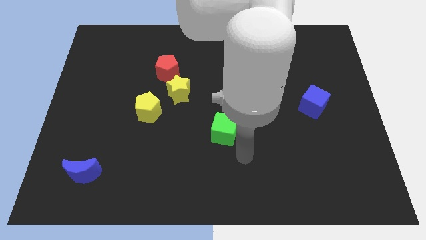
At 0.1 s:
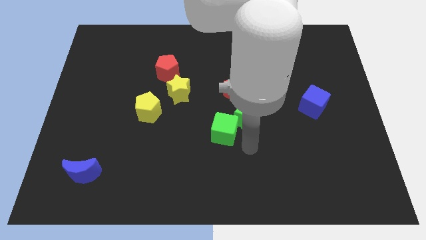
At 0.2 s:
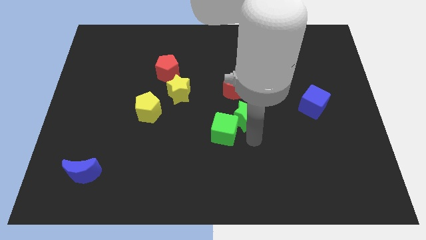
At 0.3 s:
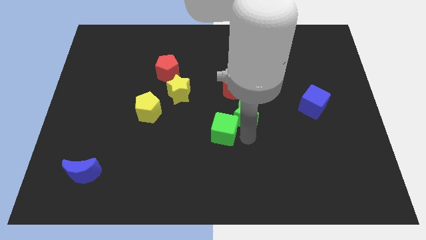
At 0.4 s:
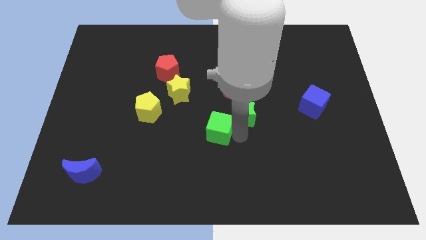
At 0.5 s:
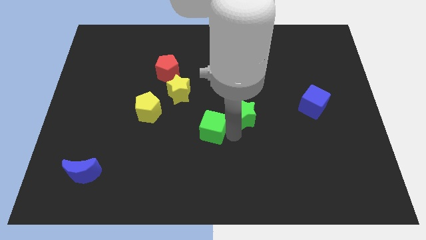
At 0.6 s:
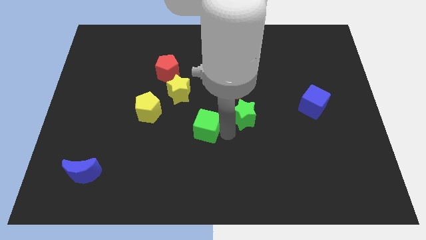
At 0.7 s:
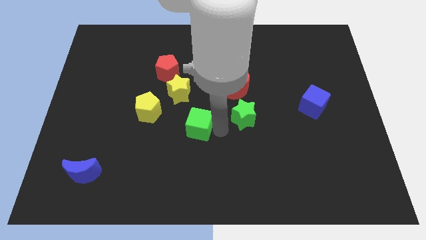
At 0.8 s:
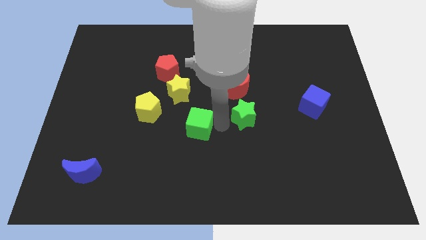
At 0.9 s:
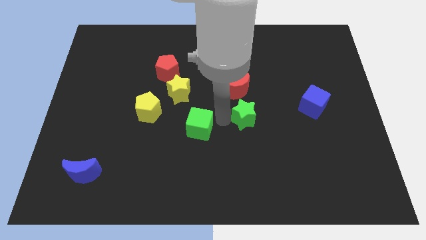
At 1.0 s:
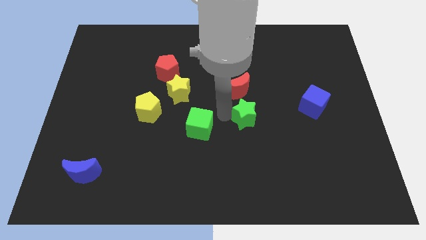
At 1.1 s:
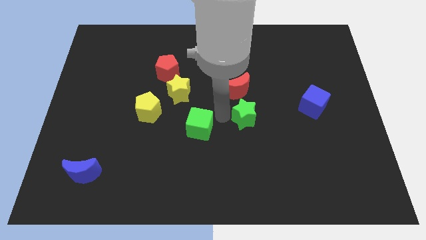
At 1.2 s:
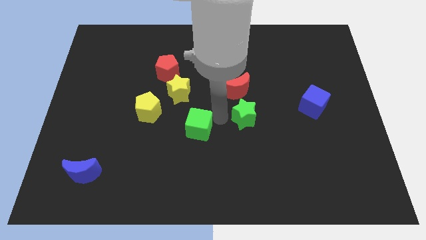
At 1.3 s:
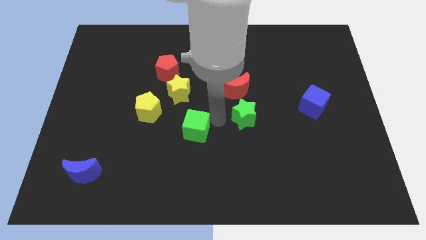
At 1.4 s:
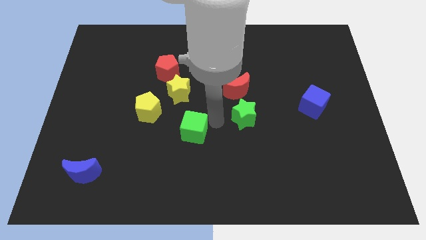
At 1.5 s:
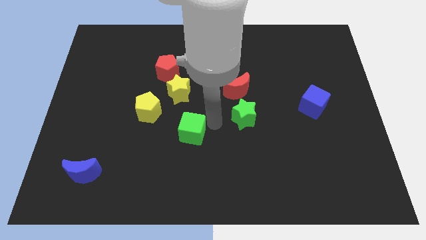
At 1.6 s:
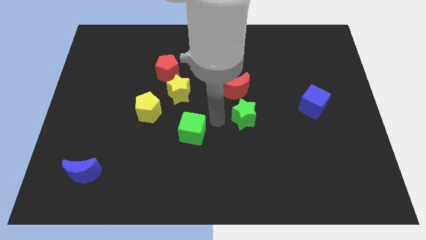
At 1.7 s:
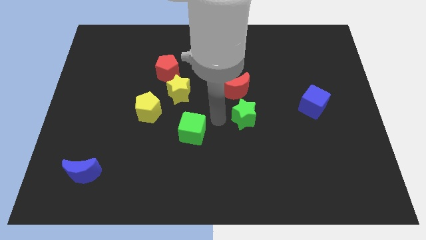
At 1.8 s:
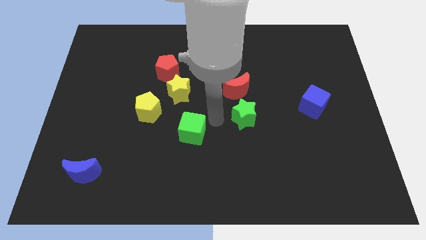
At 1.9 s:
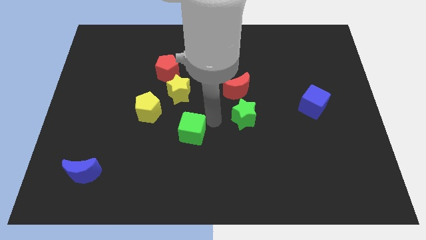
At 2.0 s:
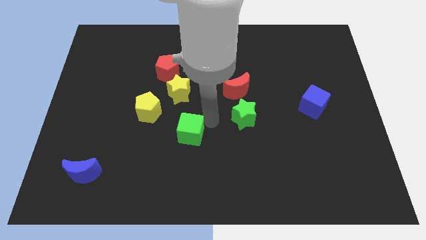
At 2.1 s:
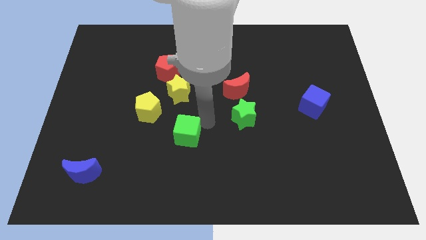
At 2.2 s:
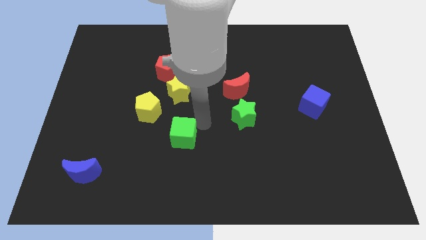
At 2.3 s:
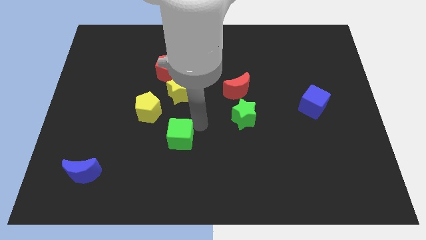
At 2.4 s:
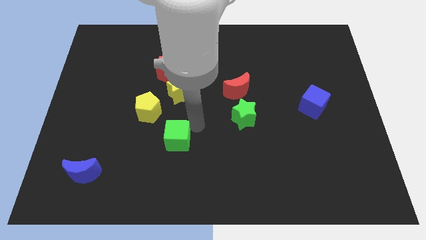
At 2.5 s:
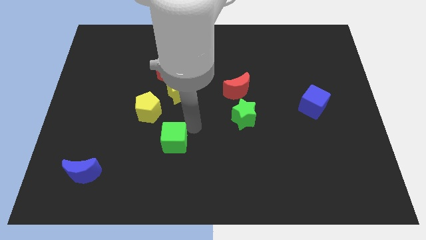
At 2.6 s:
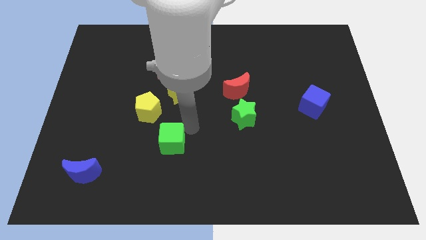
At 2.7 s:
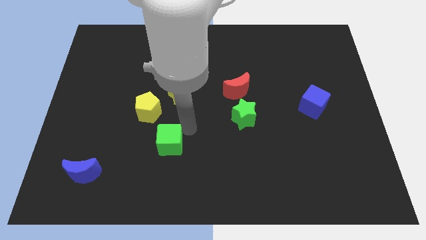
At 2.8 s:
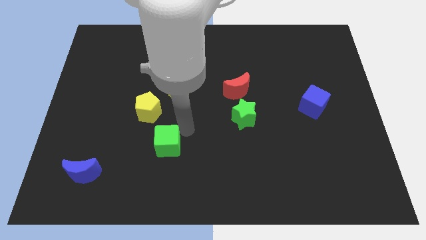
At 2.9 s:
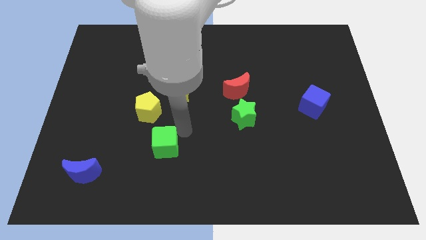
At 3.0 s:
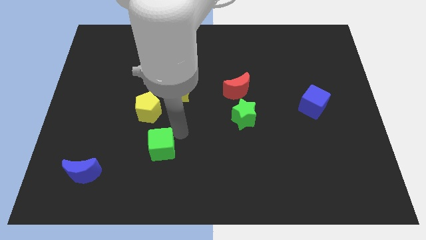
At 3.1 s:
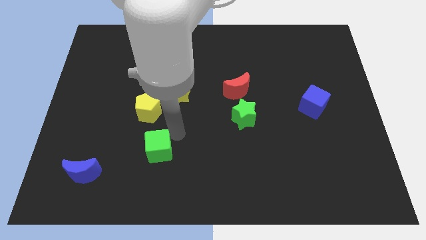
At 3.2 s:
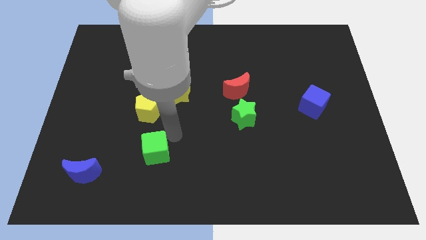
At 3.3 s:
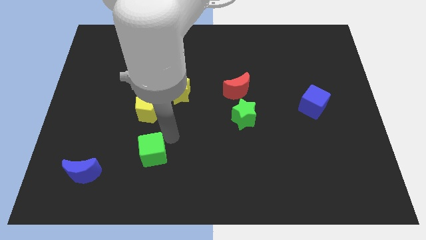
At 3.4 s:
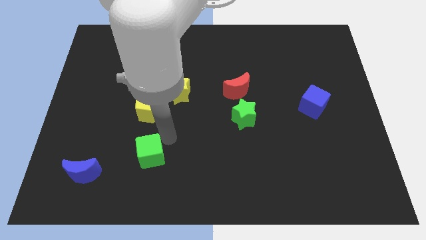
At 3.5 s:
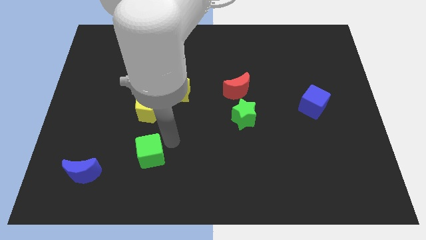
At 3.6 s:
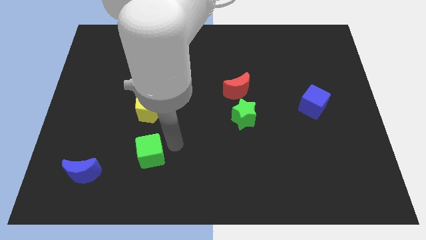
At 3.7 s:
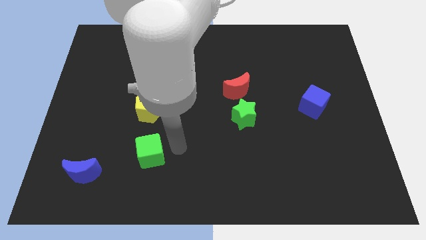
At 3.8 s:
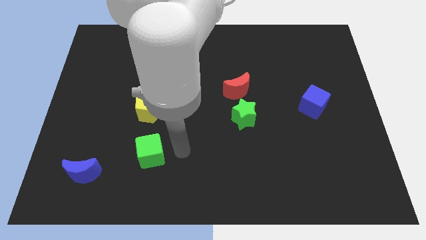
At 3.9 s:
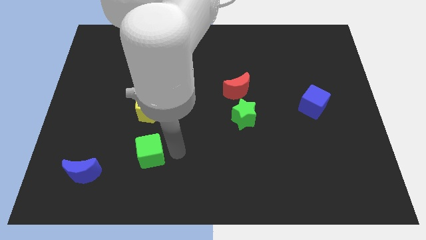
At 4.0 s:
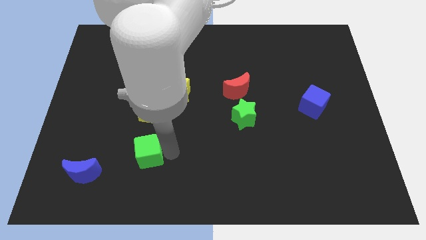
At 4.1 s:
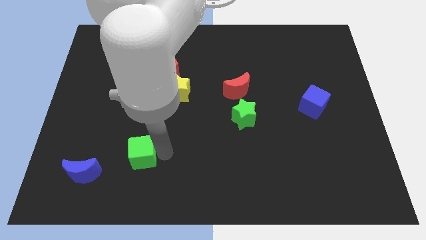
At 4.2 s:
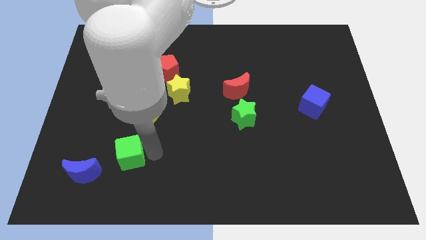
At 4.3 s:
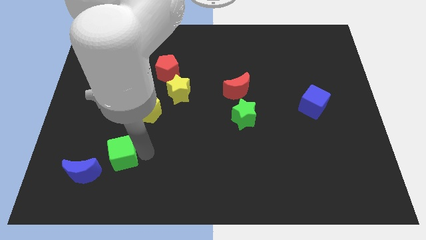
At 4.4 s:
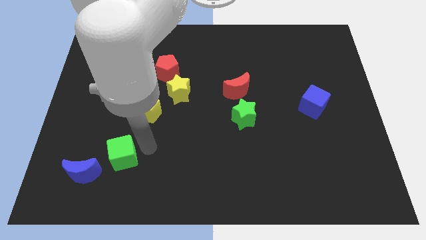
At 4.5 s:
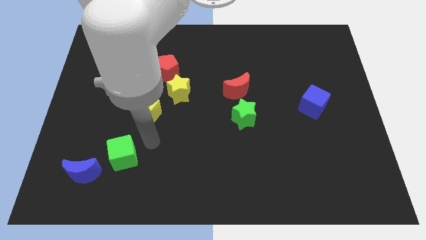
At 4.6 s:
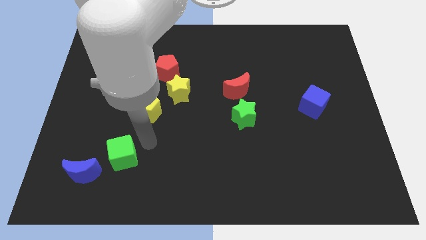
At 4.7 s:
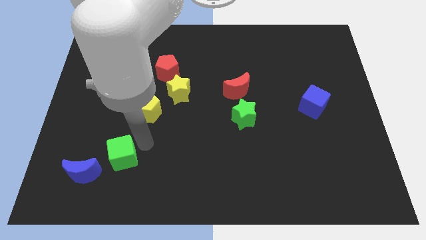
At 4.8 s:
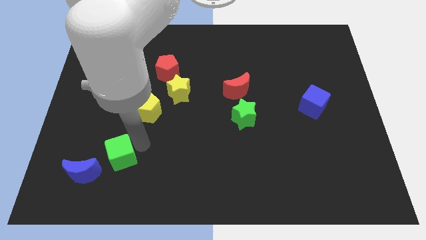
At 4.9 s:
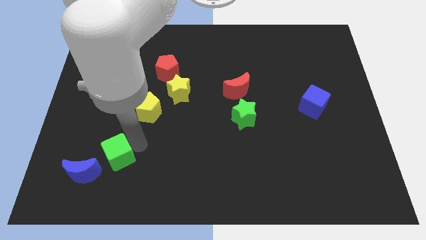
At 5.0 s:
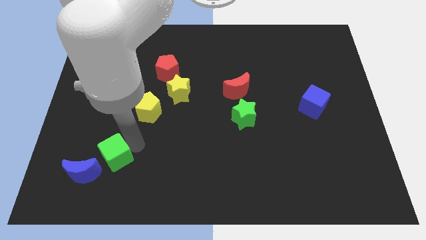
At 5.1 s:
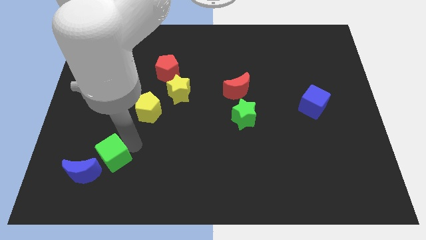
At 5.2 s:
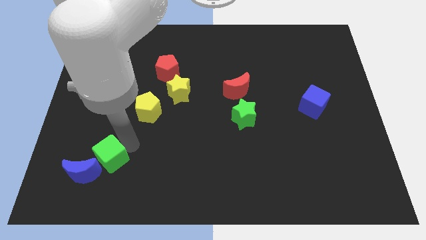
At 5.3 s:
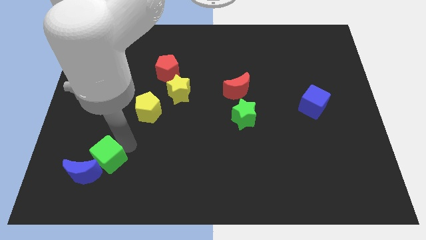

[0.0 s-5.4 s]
put the green cube next to the blue moon

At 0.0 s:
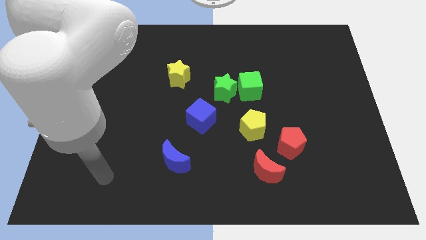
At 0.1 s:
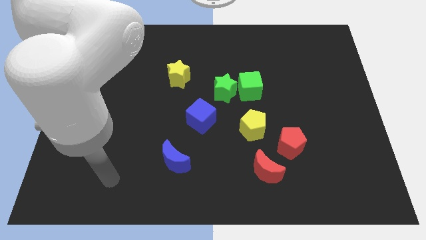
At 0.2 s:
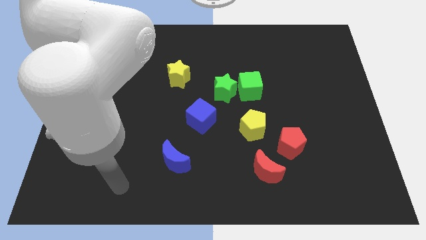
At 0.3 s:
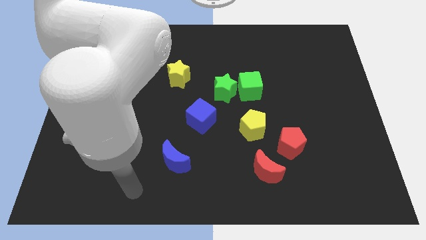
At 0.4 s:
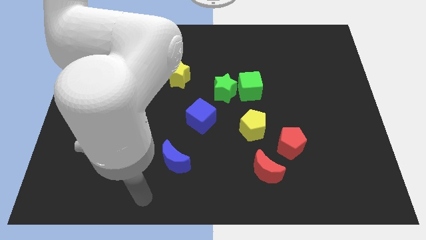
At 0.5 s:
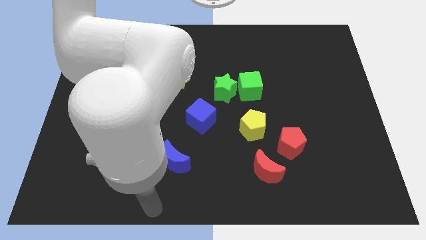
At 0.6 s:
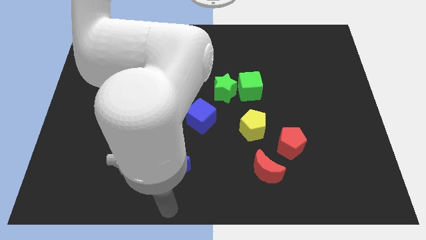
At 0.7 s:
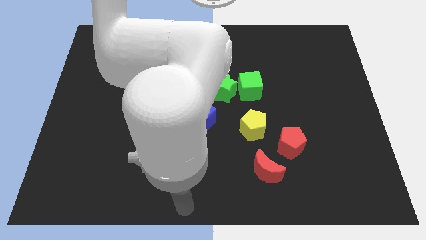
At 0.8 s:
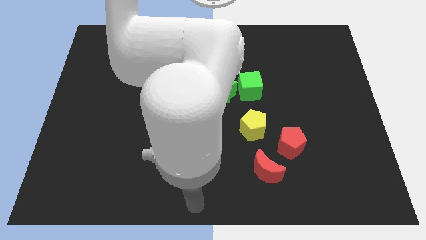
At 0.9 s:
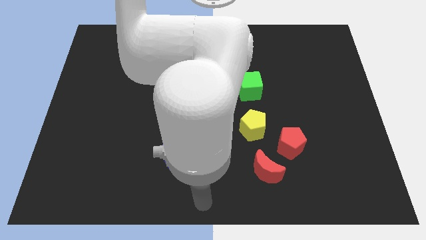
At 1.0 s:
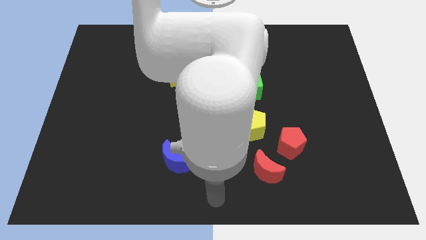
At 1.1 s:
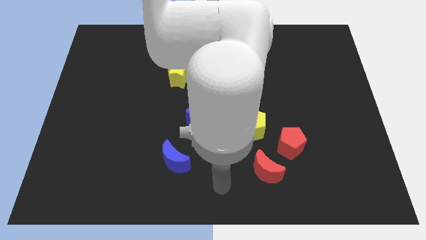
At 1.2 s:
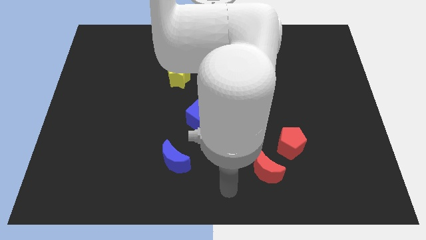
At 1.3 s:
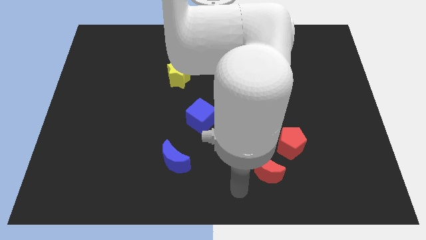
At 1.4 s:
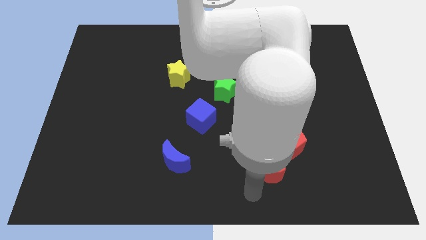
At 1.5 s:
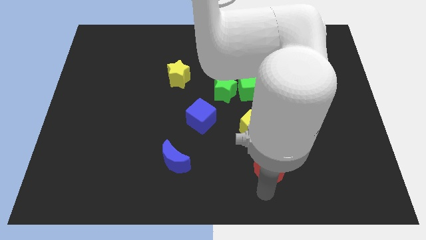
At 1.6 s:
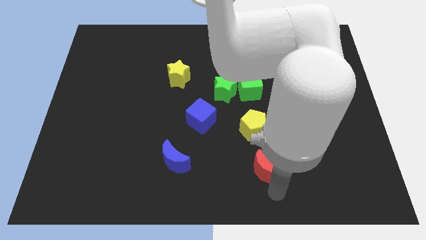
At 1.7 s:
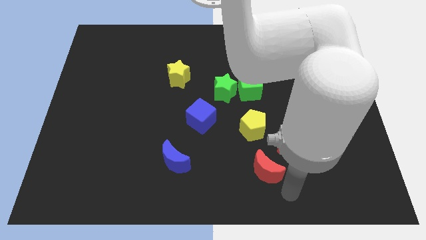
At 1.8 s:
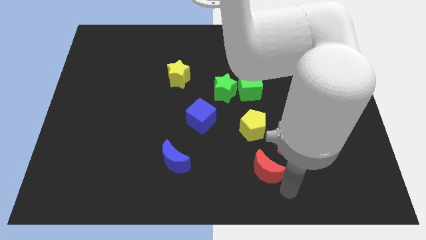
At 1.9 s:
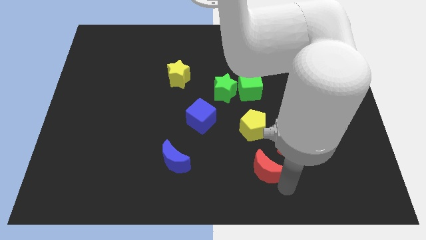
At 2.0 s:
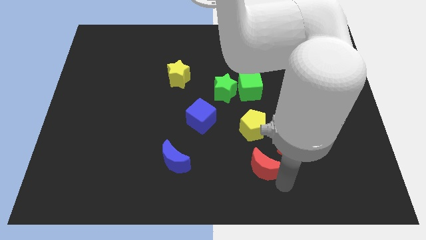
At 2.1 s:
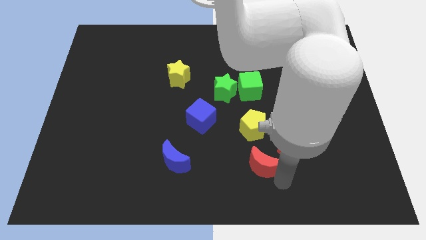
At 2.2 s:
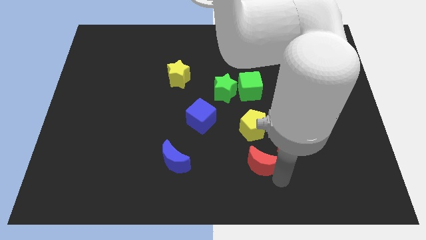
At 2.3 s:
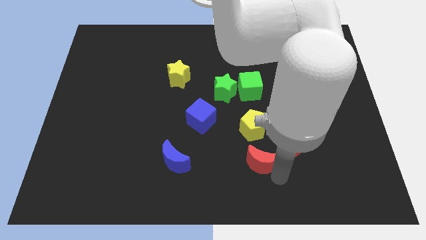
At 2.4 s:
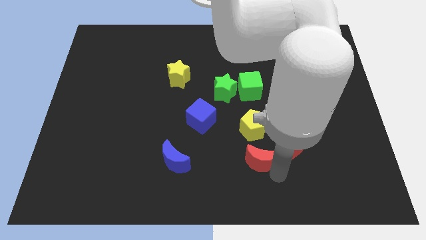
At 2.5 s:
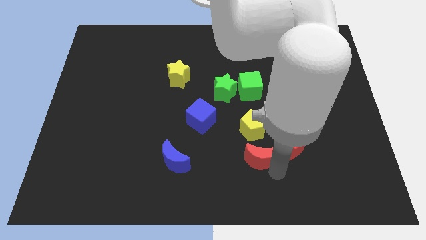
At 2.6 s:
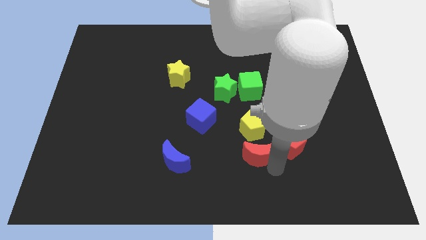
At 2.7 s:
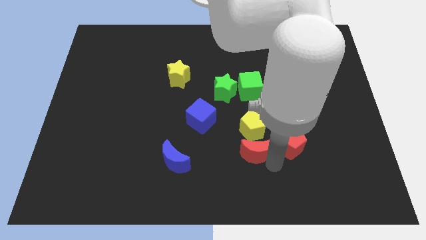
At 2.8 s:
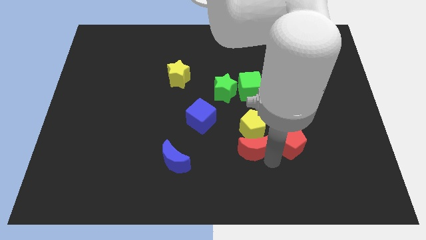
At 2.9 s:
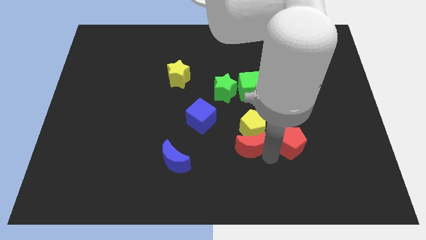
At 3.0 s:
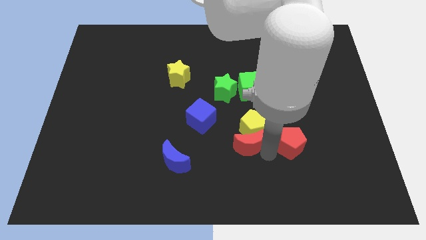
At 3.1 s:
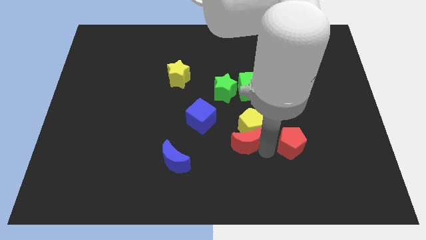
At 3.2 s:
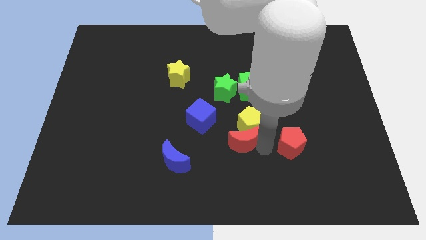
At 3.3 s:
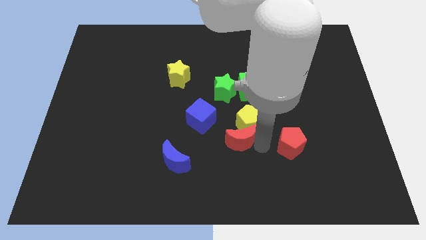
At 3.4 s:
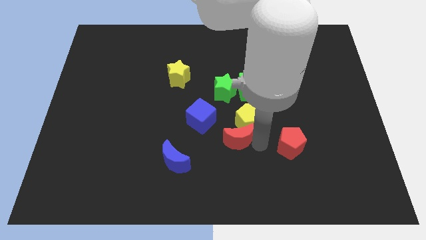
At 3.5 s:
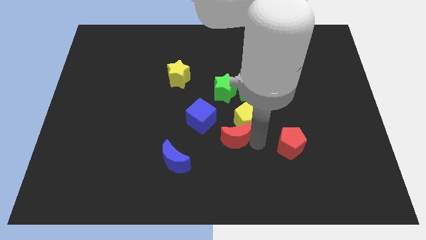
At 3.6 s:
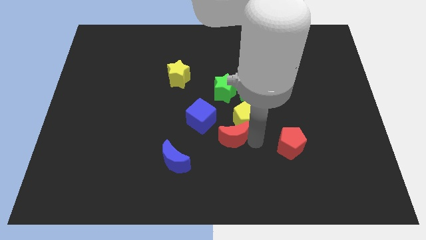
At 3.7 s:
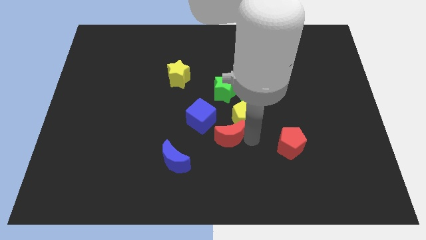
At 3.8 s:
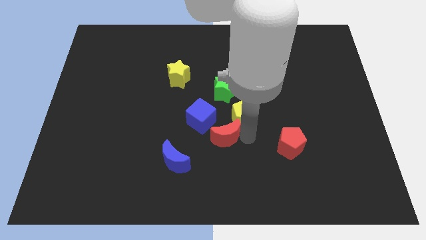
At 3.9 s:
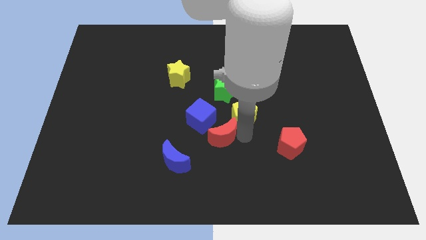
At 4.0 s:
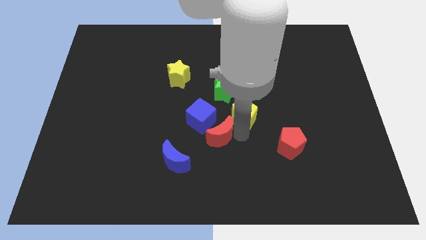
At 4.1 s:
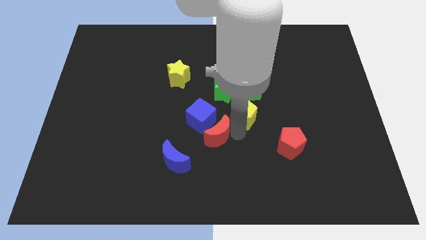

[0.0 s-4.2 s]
push the red moon next to the blue cube
